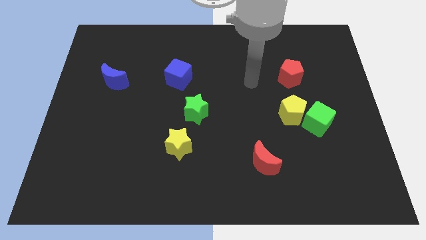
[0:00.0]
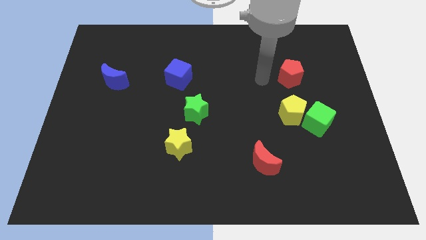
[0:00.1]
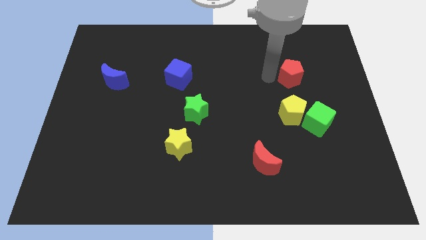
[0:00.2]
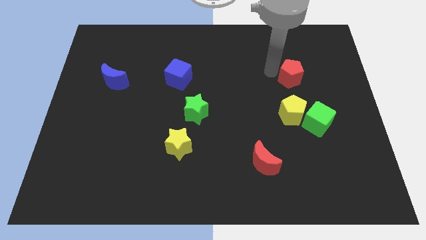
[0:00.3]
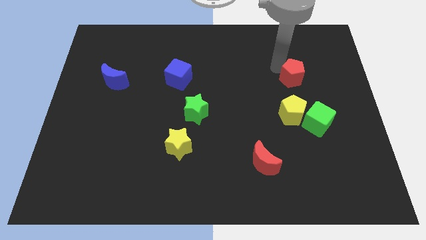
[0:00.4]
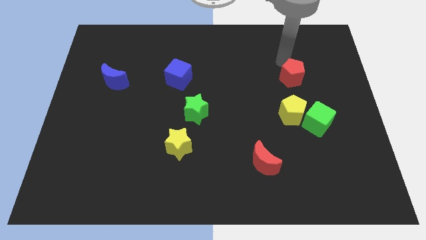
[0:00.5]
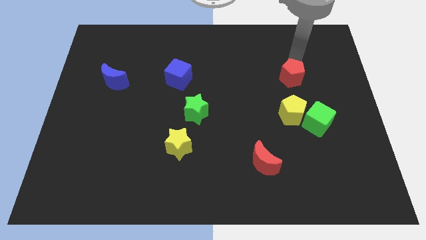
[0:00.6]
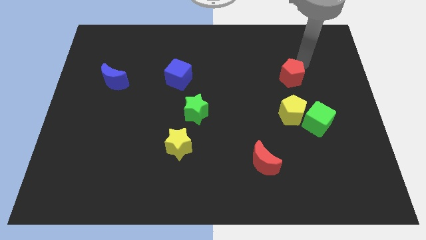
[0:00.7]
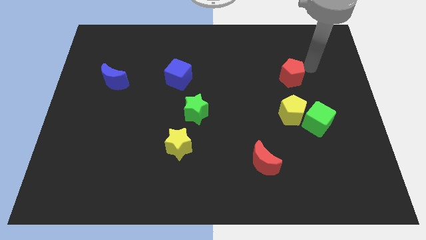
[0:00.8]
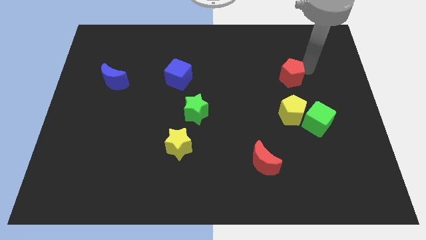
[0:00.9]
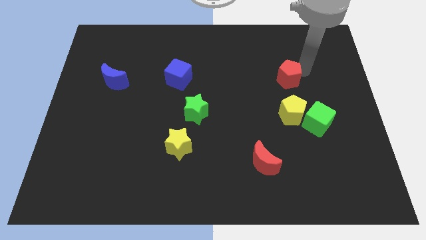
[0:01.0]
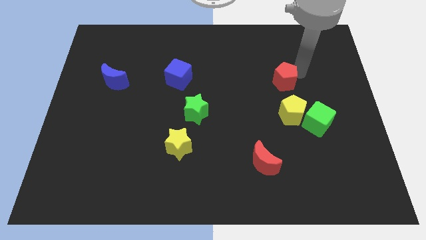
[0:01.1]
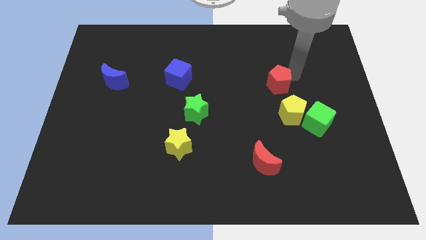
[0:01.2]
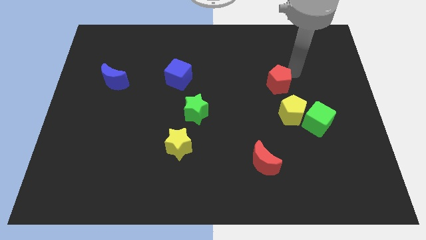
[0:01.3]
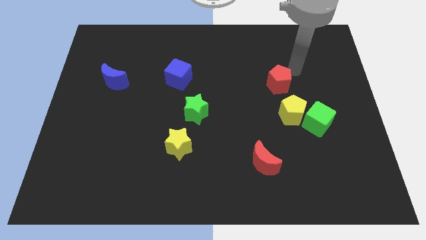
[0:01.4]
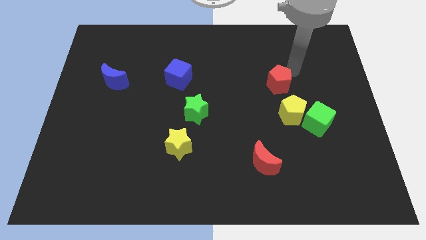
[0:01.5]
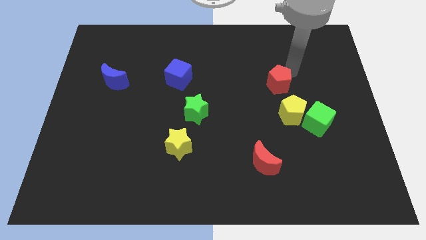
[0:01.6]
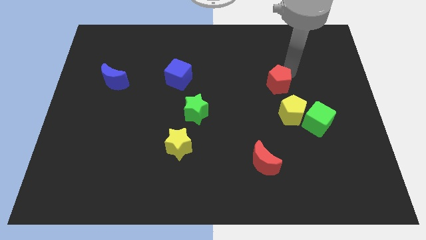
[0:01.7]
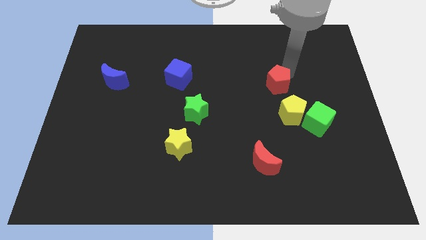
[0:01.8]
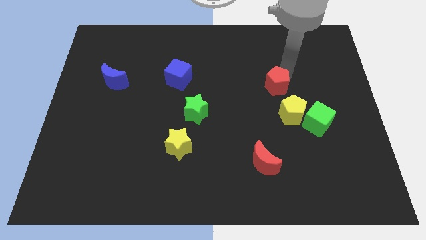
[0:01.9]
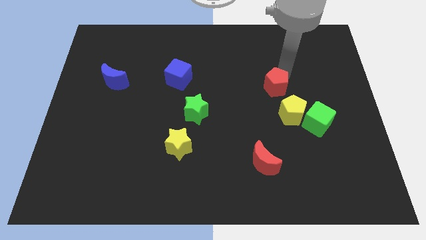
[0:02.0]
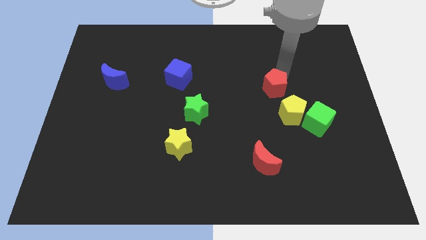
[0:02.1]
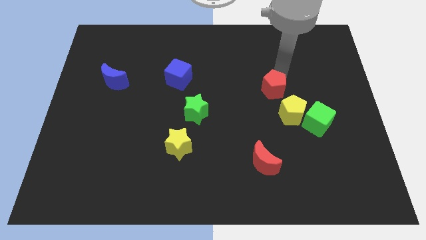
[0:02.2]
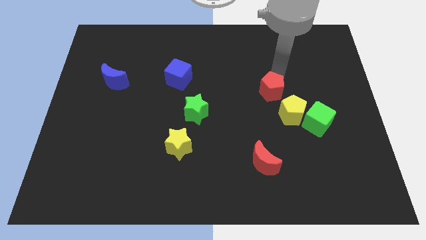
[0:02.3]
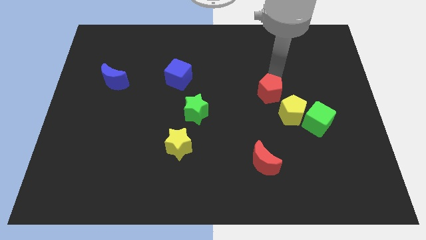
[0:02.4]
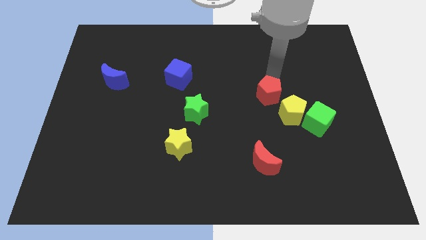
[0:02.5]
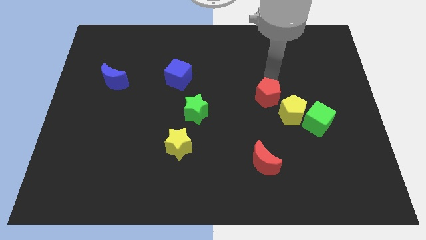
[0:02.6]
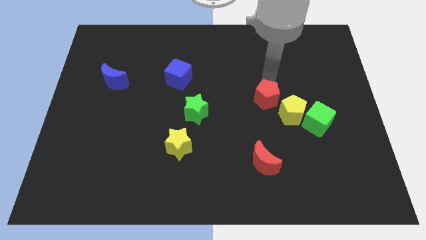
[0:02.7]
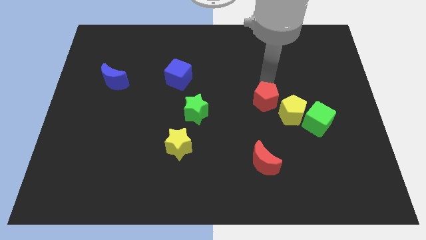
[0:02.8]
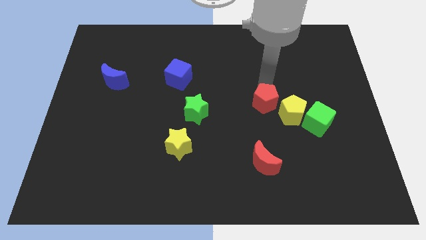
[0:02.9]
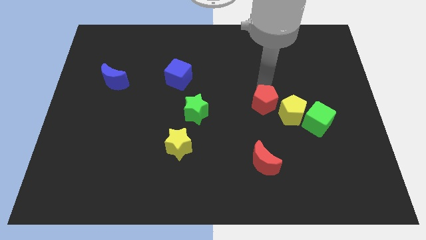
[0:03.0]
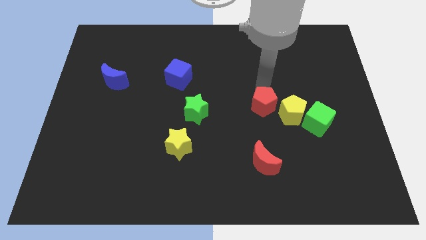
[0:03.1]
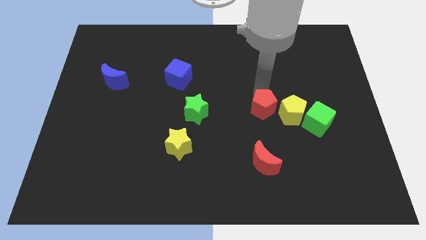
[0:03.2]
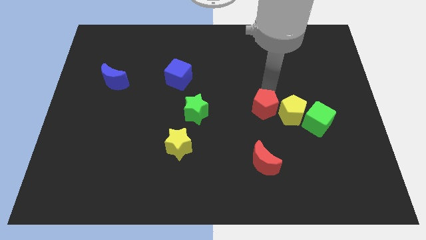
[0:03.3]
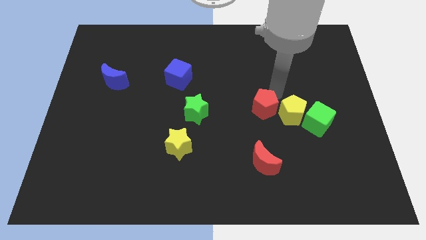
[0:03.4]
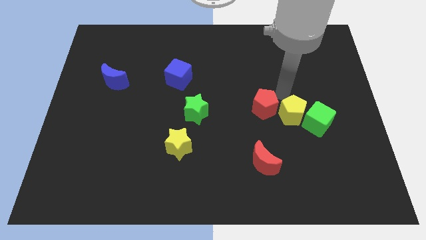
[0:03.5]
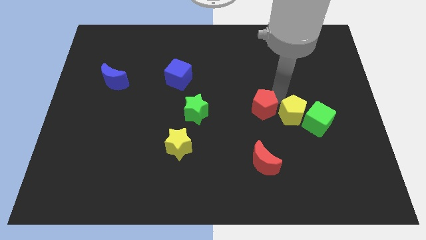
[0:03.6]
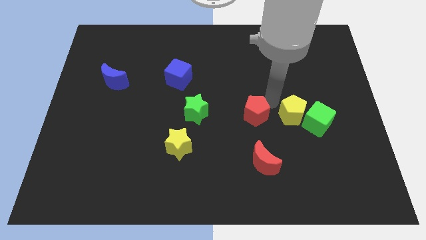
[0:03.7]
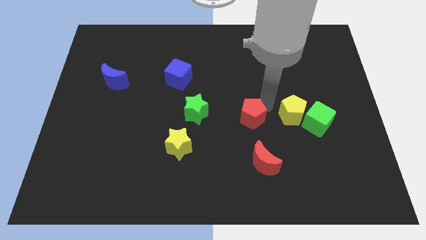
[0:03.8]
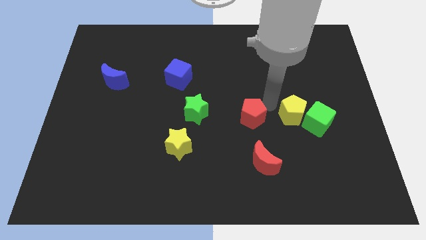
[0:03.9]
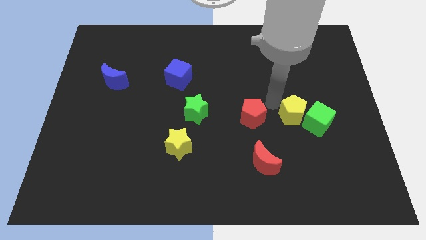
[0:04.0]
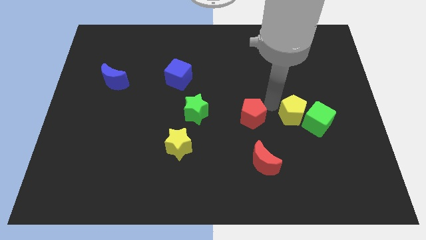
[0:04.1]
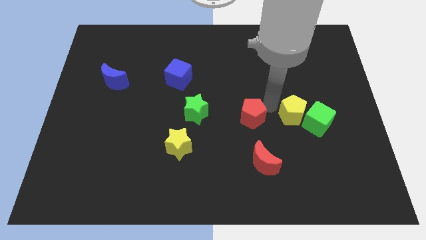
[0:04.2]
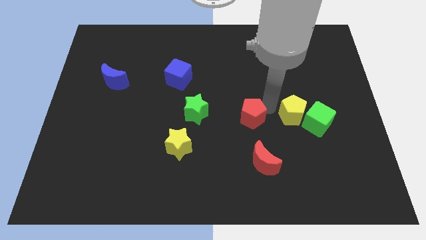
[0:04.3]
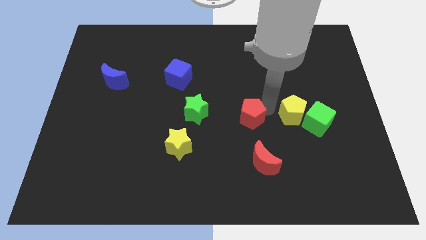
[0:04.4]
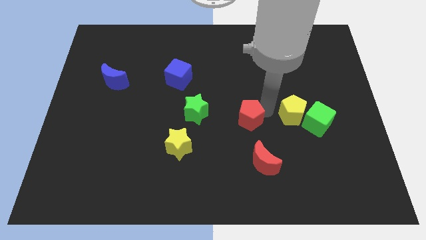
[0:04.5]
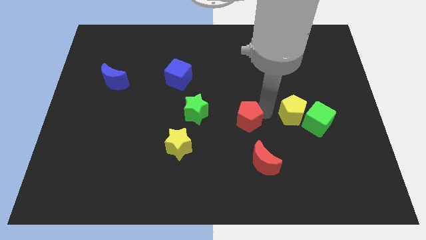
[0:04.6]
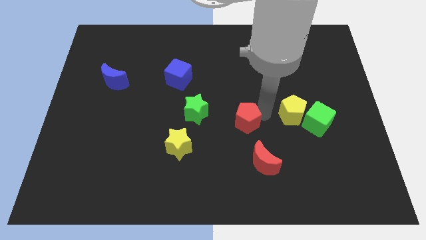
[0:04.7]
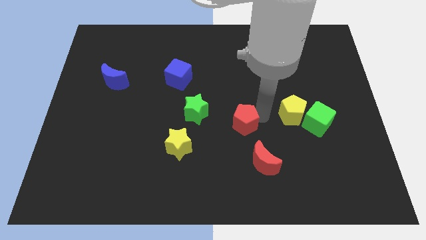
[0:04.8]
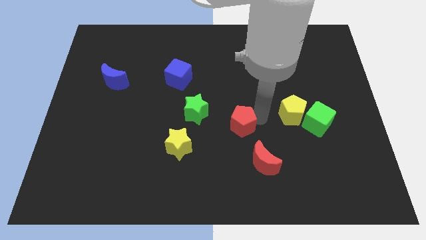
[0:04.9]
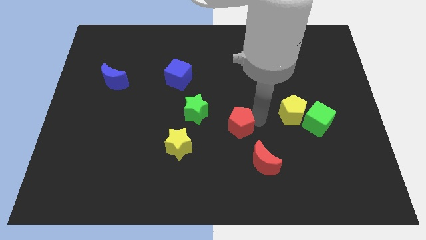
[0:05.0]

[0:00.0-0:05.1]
push the red pentagon downwards and then left

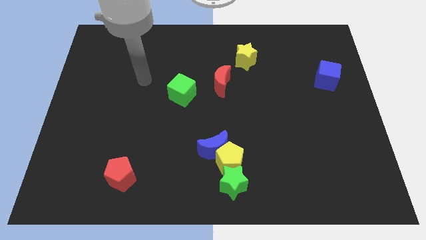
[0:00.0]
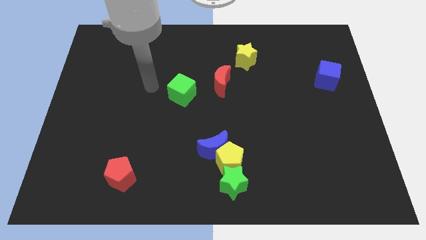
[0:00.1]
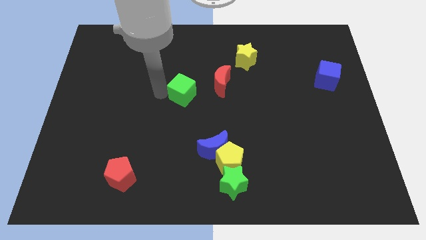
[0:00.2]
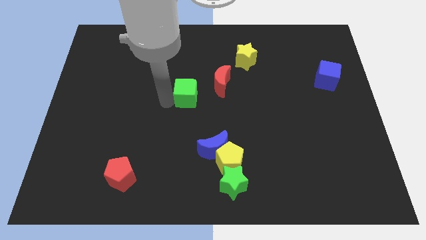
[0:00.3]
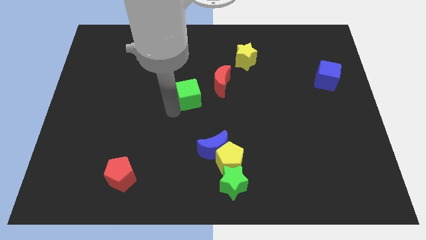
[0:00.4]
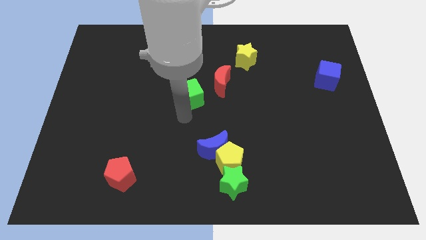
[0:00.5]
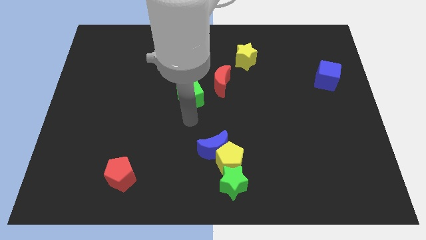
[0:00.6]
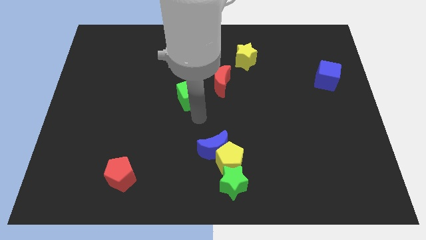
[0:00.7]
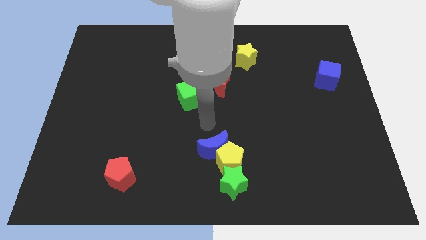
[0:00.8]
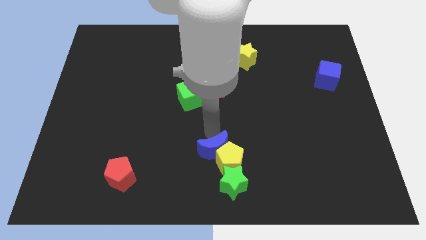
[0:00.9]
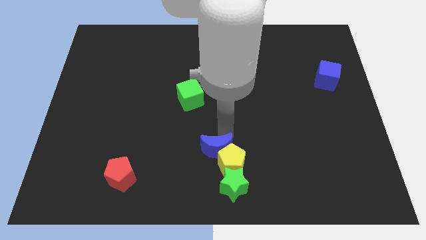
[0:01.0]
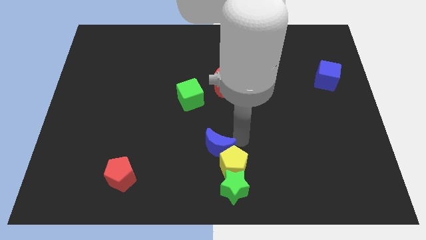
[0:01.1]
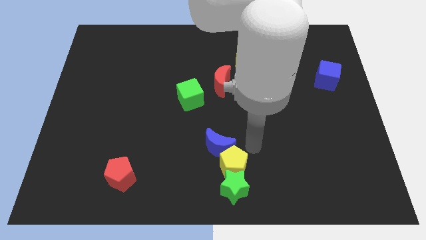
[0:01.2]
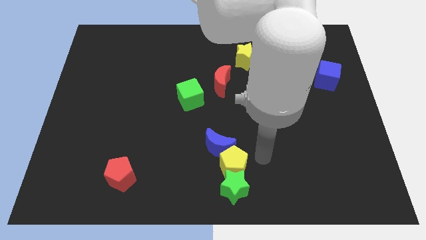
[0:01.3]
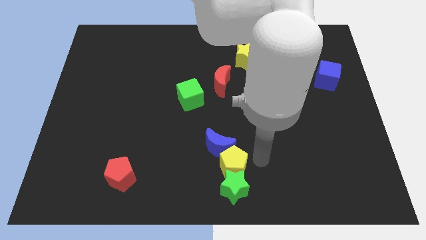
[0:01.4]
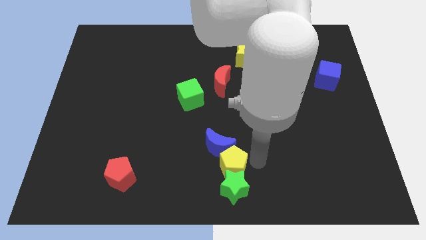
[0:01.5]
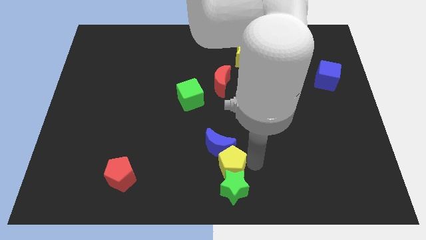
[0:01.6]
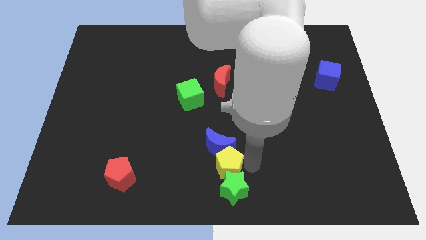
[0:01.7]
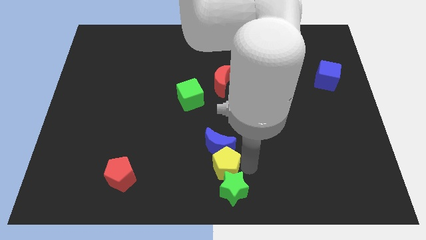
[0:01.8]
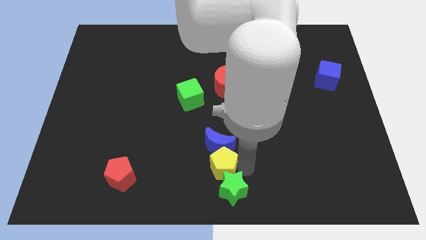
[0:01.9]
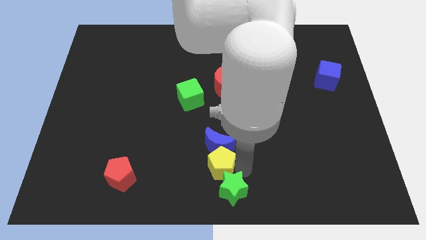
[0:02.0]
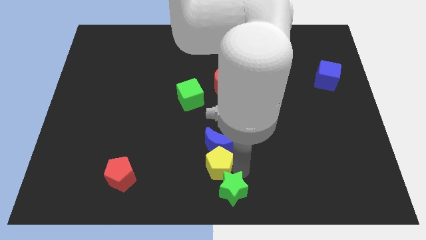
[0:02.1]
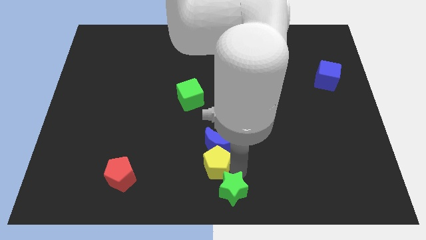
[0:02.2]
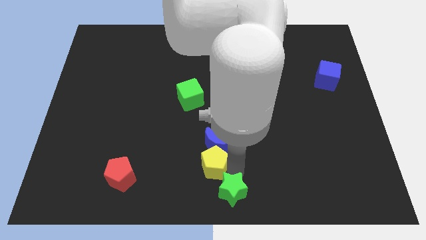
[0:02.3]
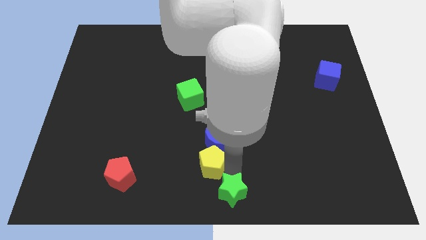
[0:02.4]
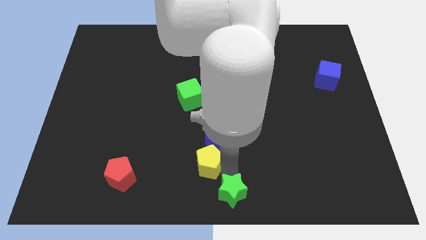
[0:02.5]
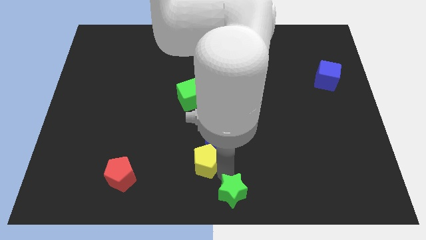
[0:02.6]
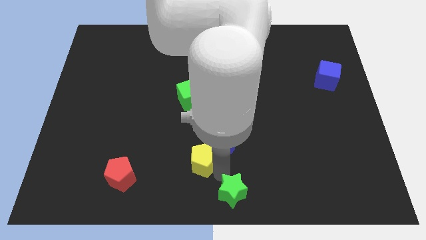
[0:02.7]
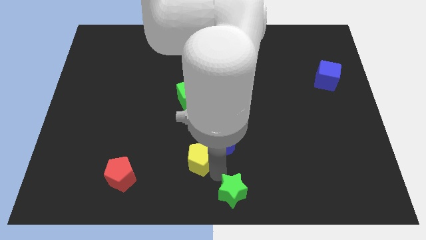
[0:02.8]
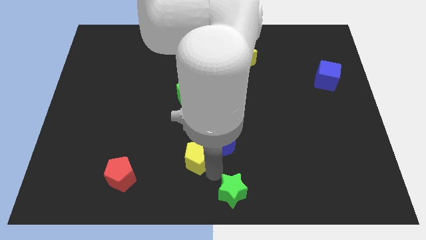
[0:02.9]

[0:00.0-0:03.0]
slightly move the yellow pentagon to the left
